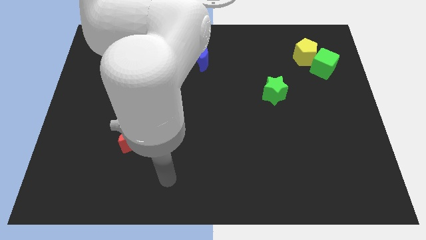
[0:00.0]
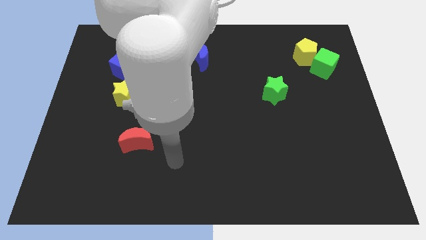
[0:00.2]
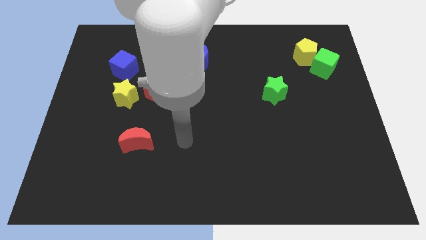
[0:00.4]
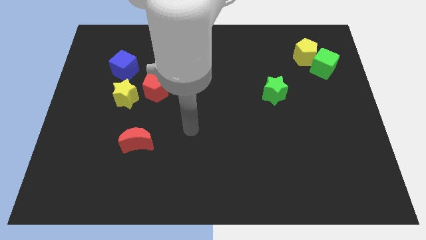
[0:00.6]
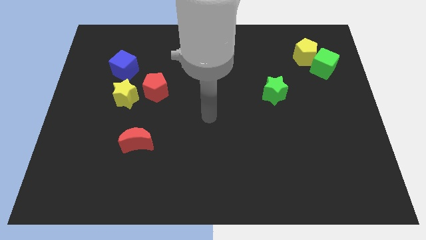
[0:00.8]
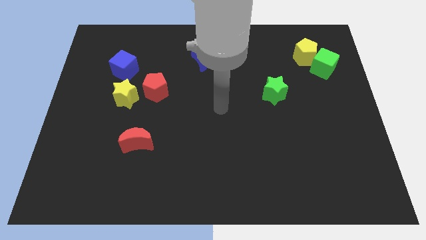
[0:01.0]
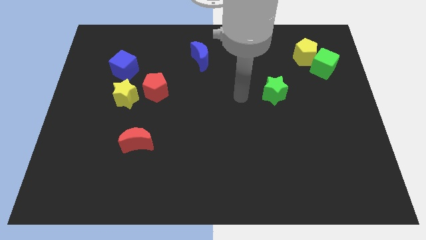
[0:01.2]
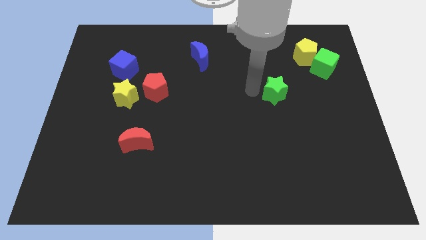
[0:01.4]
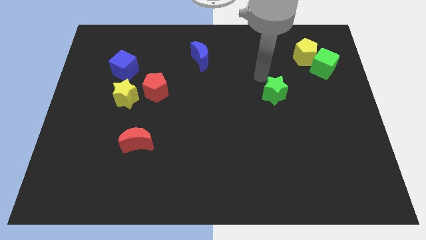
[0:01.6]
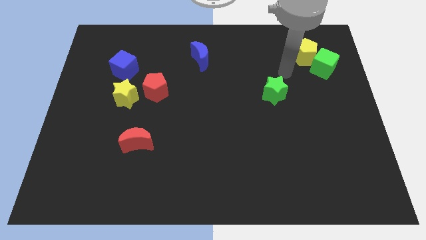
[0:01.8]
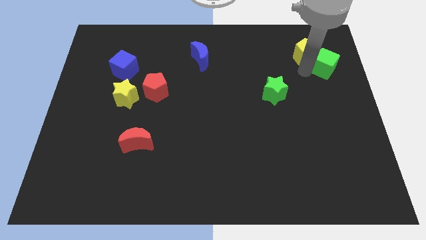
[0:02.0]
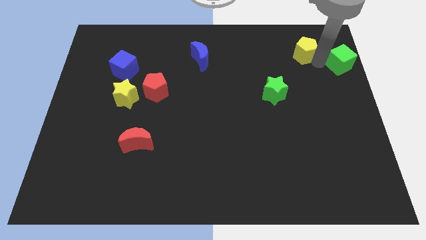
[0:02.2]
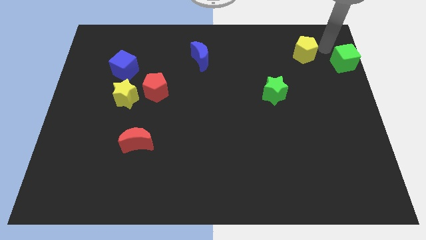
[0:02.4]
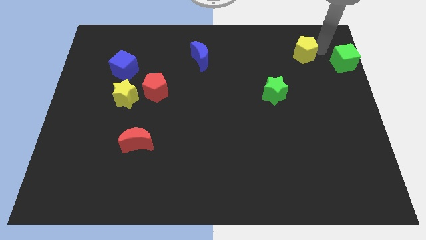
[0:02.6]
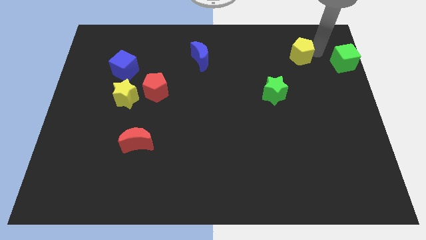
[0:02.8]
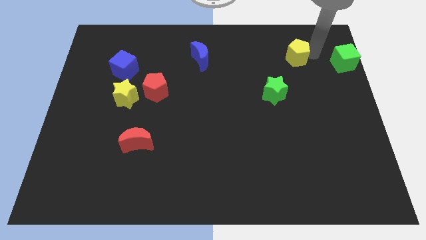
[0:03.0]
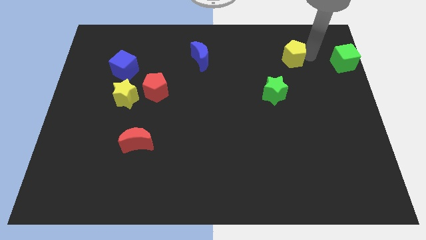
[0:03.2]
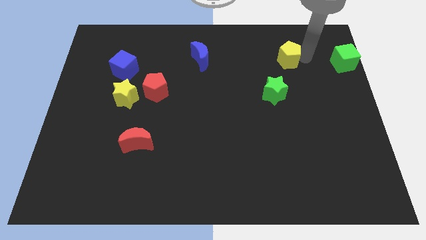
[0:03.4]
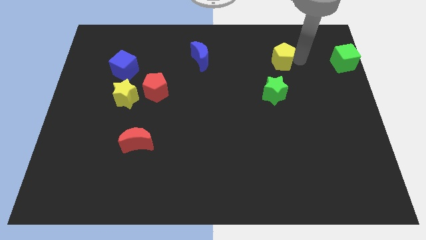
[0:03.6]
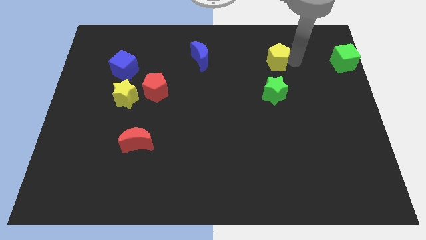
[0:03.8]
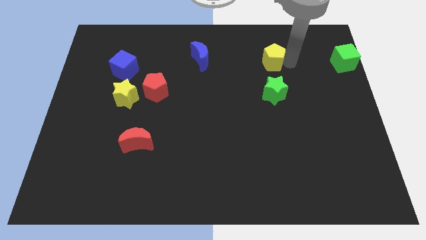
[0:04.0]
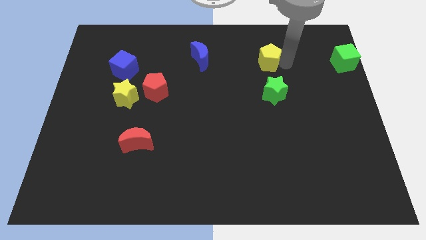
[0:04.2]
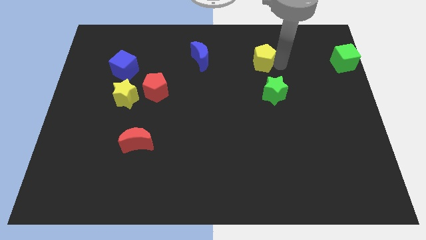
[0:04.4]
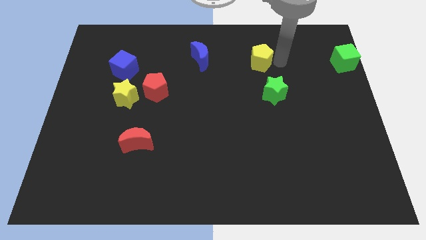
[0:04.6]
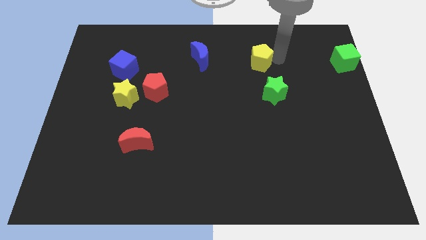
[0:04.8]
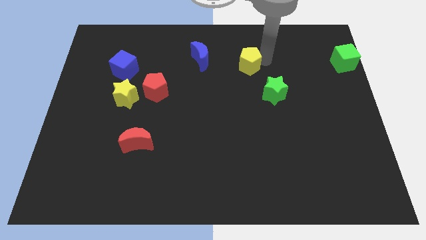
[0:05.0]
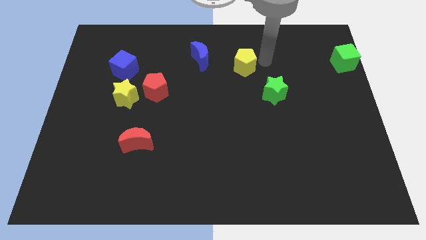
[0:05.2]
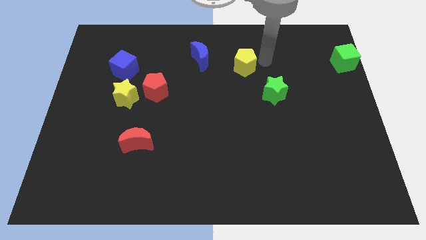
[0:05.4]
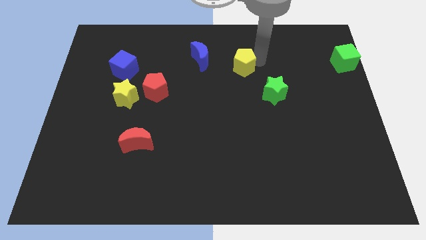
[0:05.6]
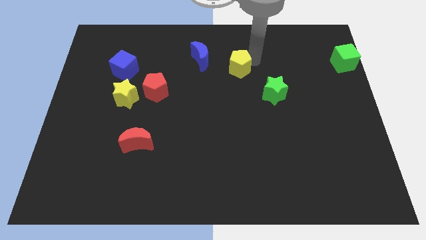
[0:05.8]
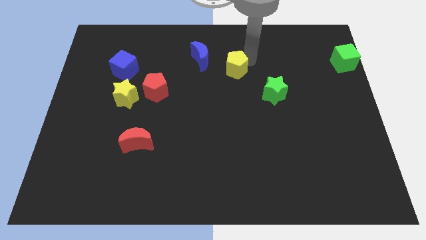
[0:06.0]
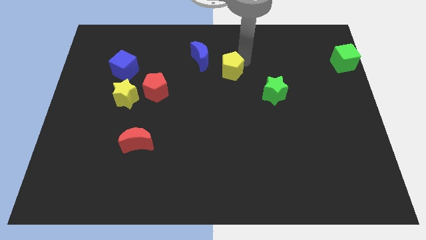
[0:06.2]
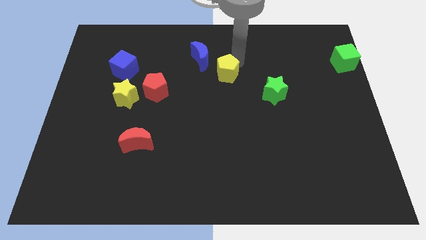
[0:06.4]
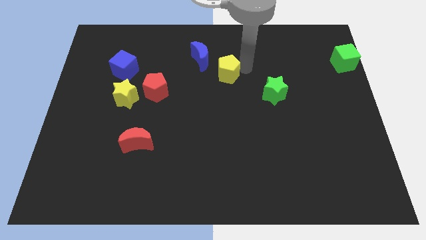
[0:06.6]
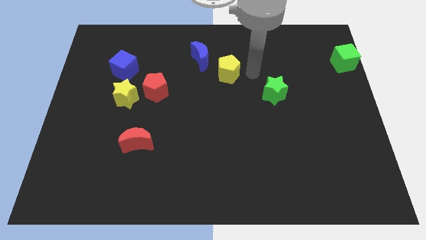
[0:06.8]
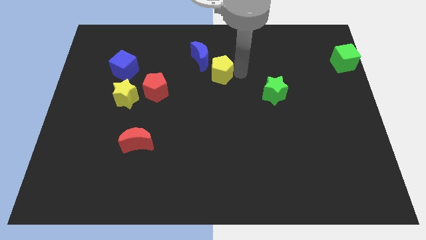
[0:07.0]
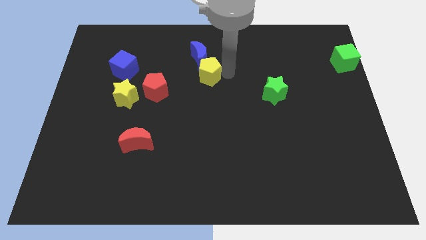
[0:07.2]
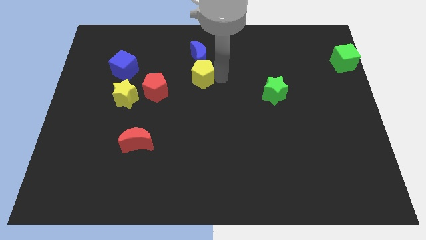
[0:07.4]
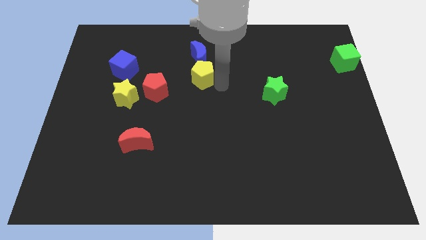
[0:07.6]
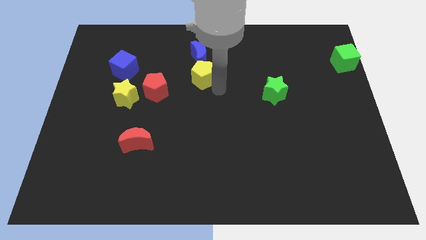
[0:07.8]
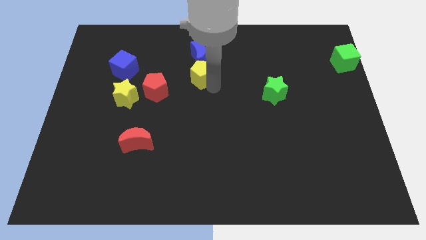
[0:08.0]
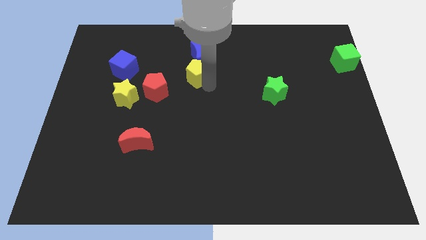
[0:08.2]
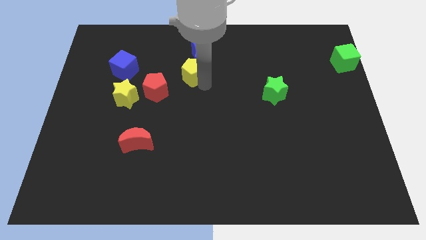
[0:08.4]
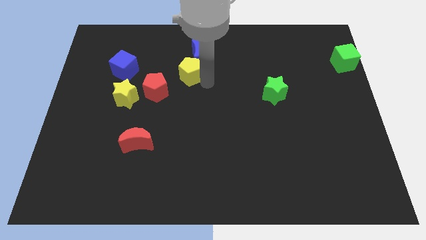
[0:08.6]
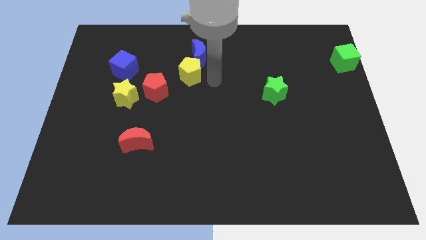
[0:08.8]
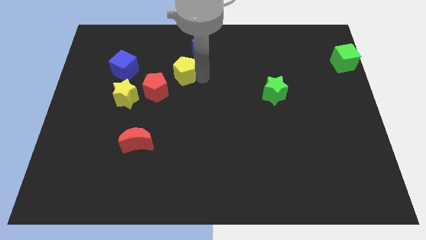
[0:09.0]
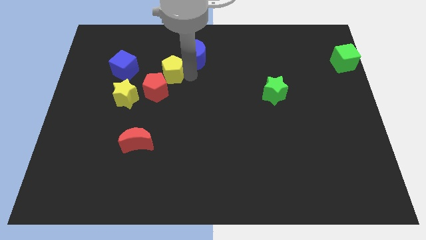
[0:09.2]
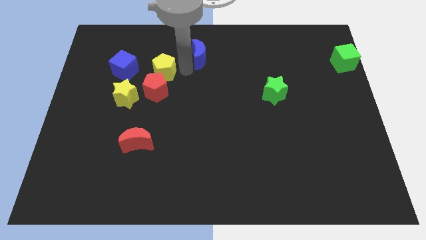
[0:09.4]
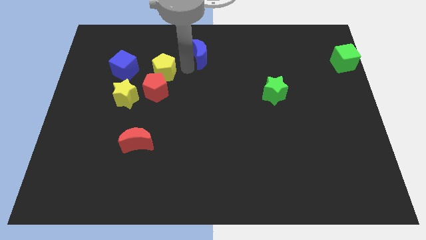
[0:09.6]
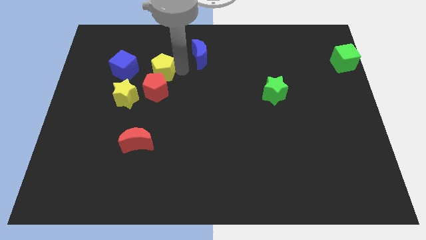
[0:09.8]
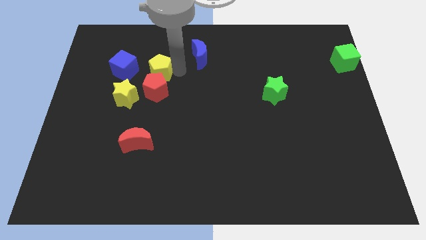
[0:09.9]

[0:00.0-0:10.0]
put the yellow pentagon to the top left of the red pentagon

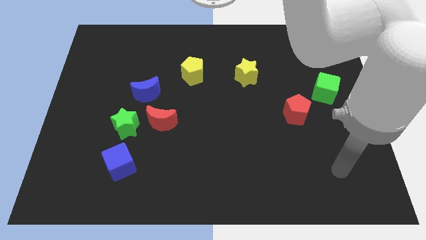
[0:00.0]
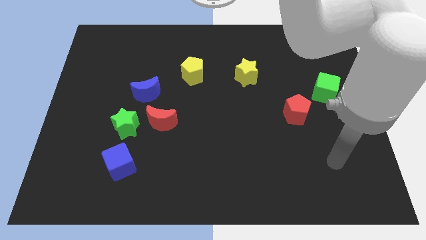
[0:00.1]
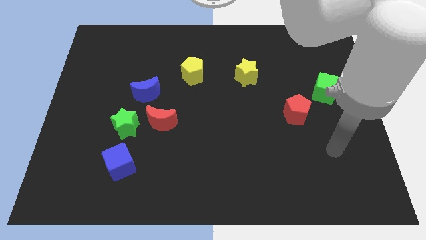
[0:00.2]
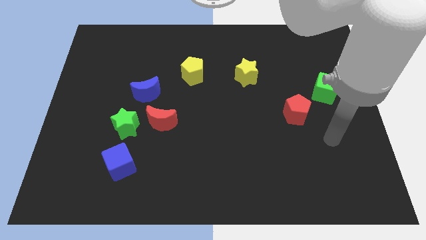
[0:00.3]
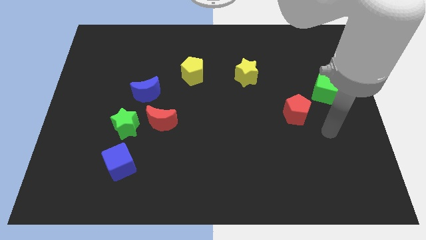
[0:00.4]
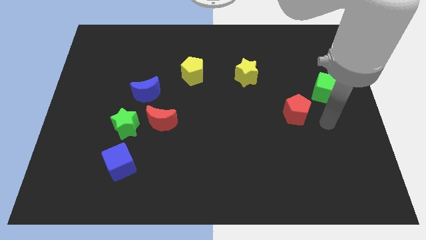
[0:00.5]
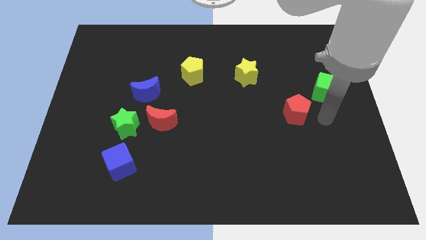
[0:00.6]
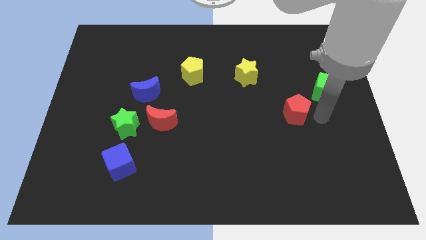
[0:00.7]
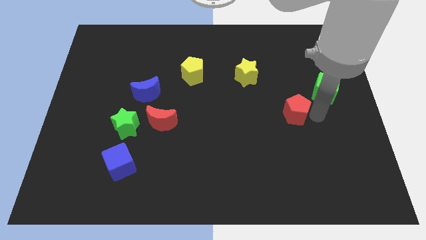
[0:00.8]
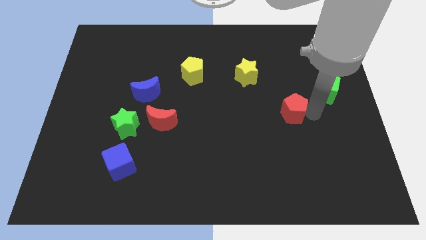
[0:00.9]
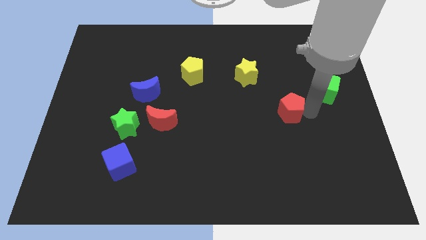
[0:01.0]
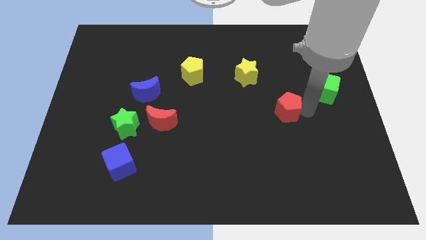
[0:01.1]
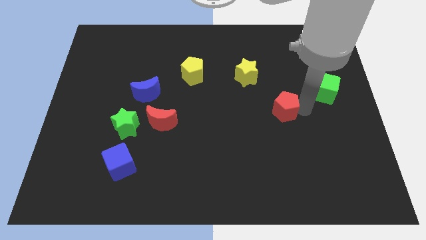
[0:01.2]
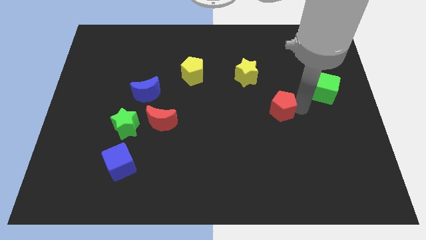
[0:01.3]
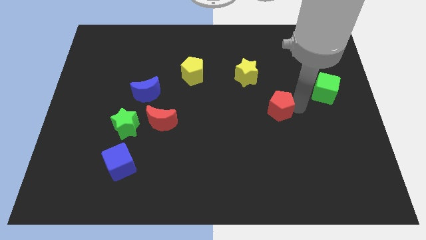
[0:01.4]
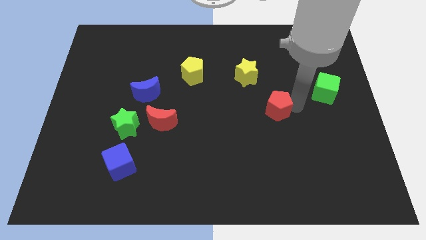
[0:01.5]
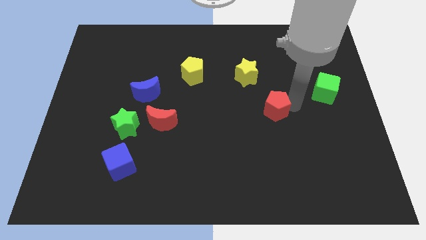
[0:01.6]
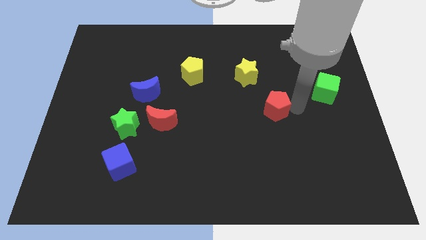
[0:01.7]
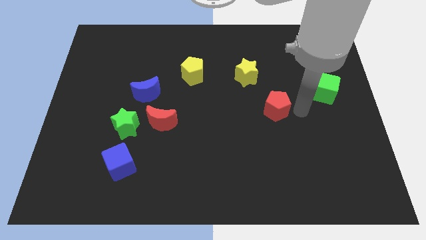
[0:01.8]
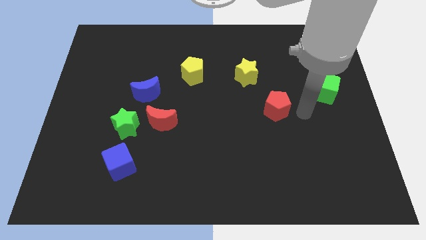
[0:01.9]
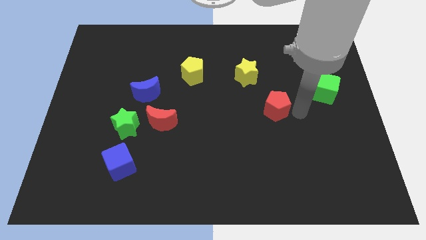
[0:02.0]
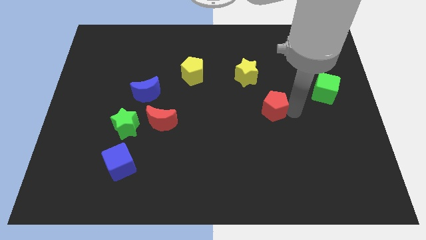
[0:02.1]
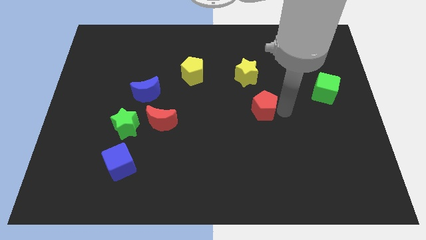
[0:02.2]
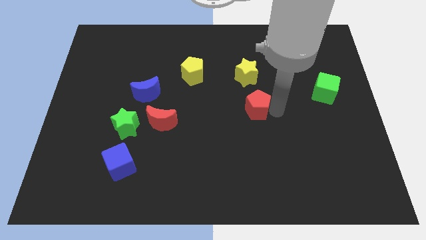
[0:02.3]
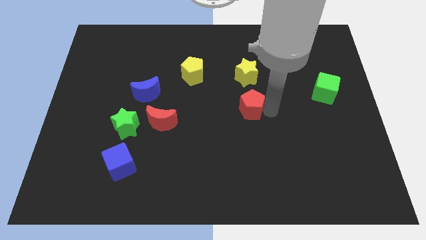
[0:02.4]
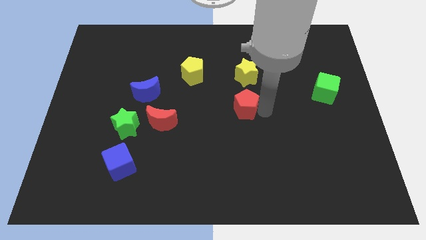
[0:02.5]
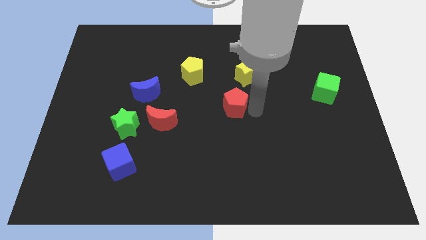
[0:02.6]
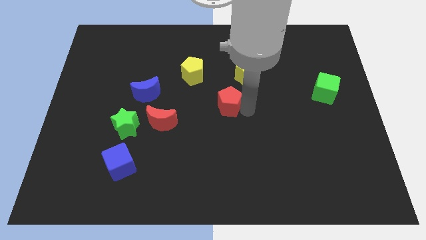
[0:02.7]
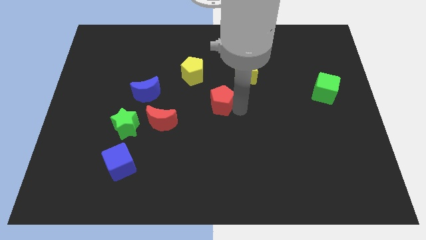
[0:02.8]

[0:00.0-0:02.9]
move the red pentagon to the bottom right side of the yellow pentagon
